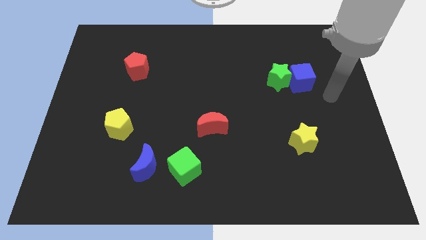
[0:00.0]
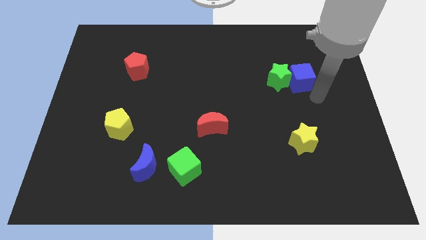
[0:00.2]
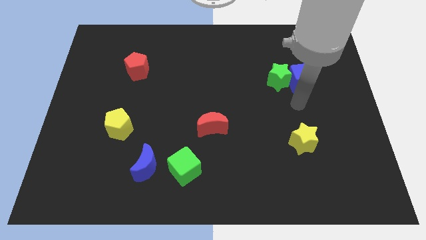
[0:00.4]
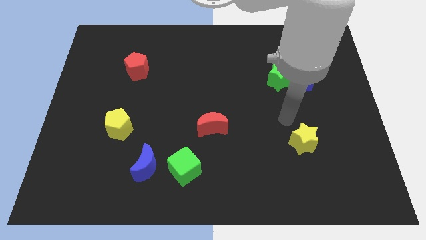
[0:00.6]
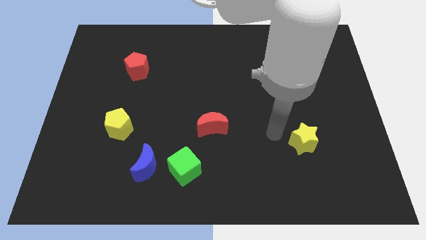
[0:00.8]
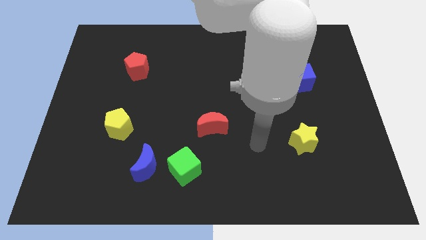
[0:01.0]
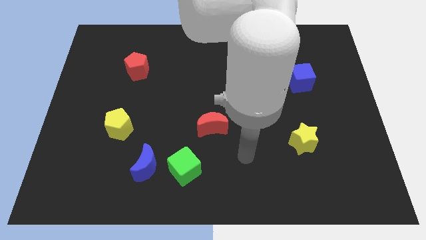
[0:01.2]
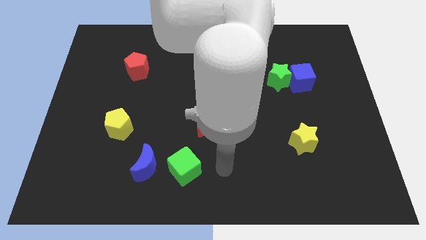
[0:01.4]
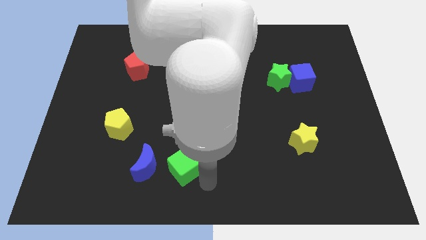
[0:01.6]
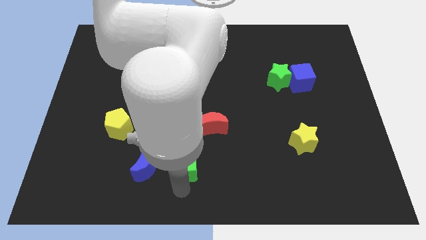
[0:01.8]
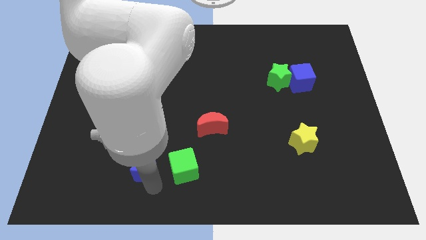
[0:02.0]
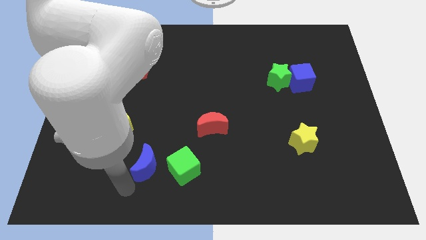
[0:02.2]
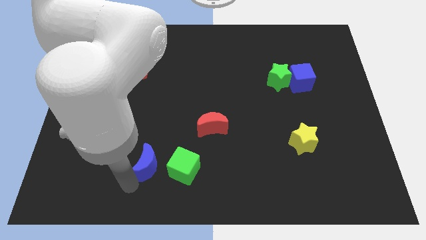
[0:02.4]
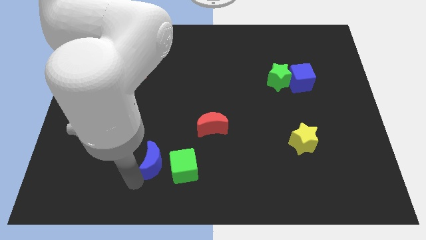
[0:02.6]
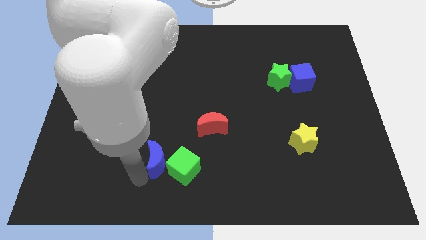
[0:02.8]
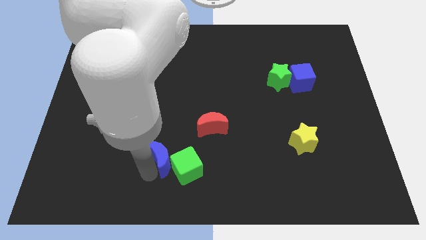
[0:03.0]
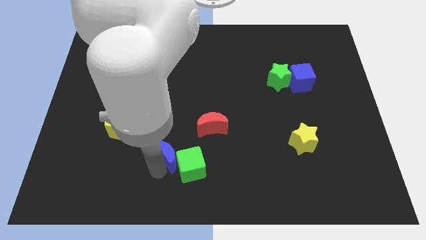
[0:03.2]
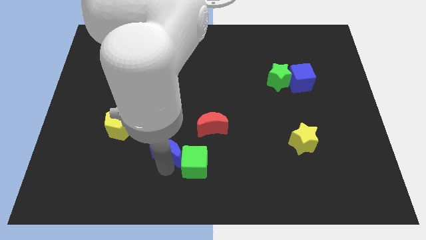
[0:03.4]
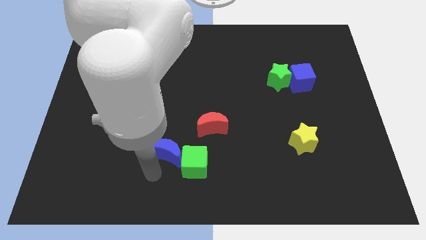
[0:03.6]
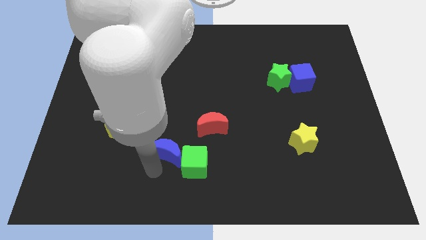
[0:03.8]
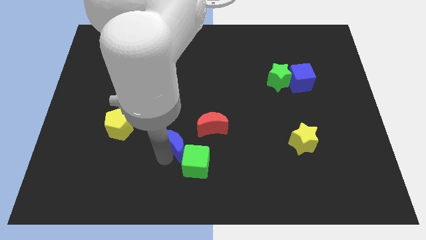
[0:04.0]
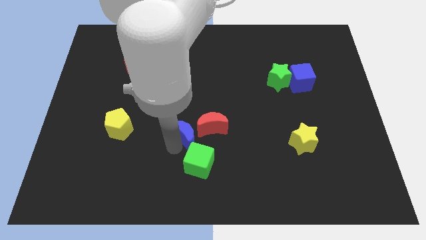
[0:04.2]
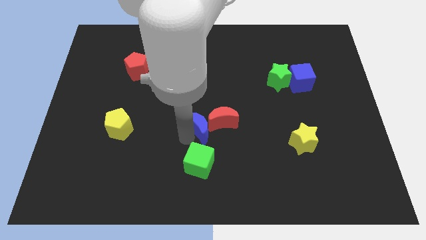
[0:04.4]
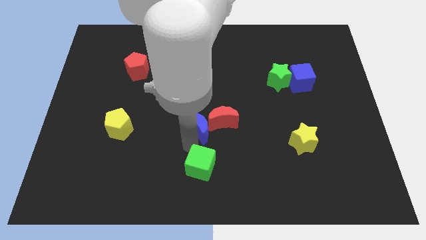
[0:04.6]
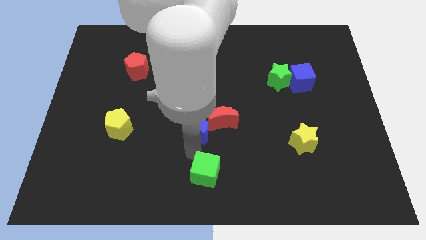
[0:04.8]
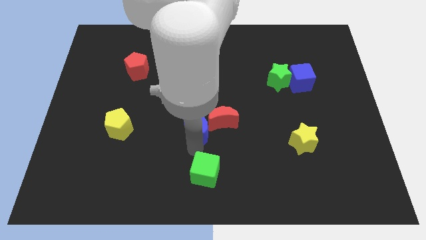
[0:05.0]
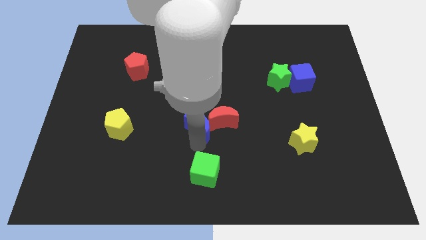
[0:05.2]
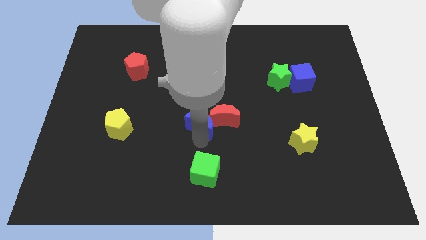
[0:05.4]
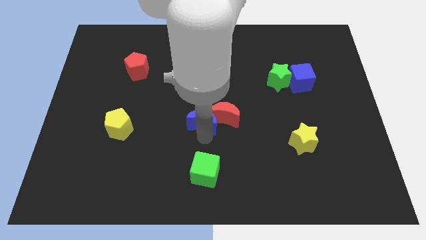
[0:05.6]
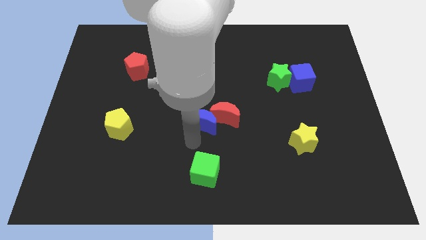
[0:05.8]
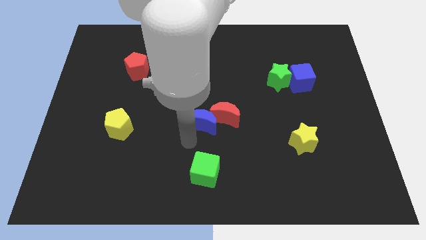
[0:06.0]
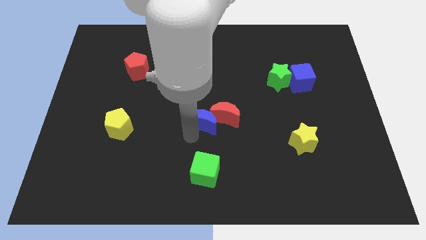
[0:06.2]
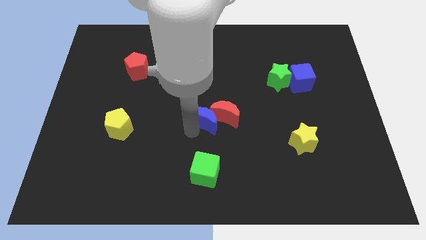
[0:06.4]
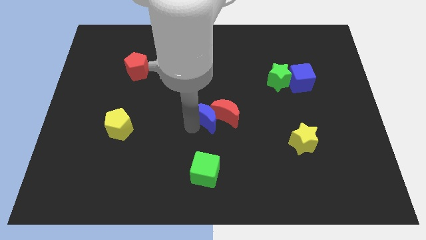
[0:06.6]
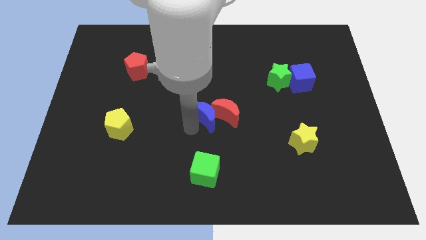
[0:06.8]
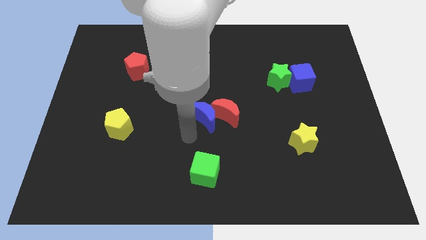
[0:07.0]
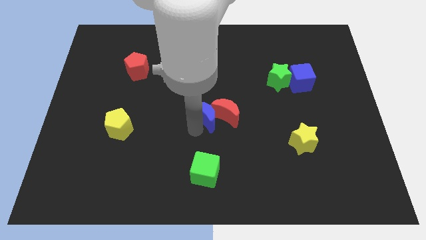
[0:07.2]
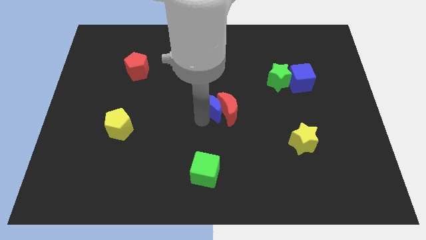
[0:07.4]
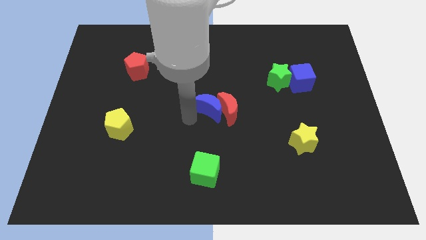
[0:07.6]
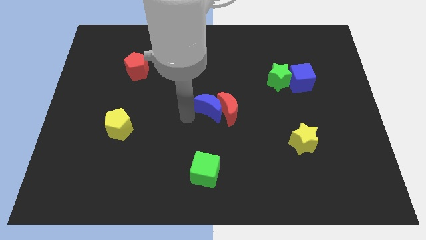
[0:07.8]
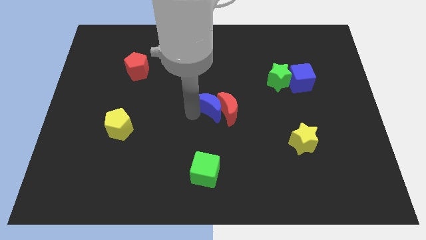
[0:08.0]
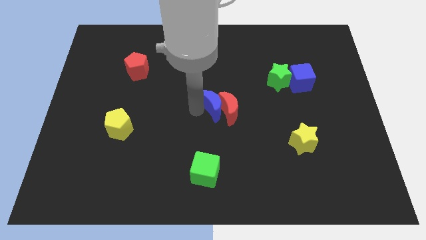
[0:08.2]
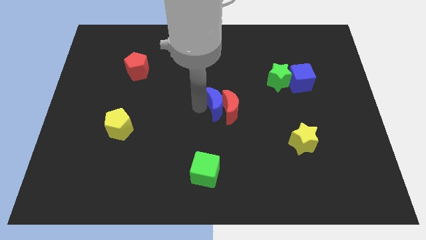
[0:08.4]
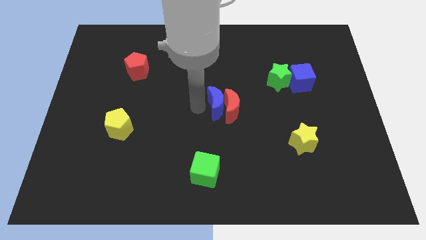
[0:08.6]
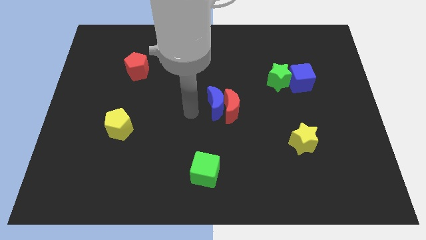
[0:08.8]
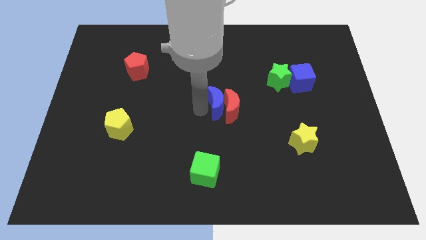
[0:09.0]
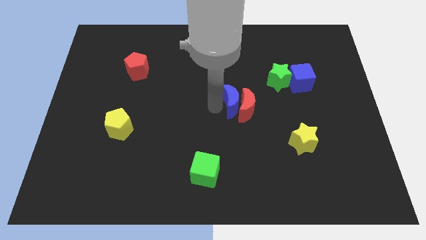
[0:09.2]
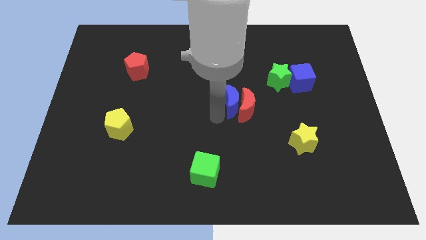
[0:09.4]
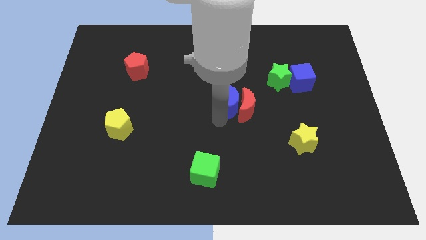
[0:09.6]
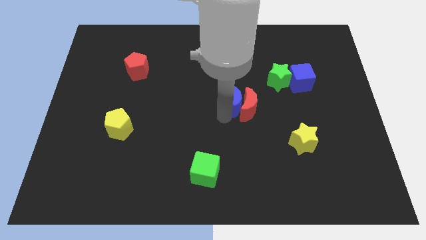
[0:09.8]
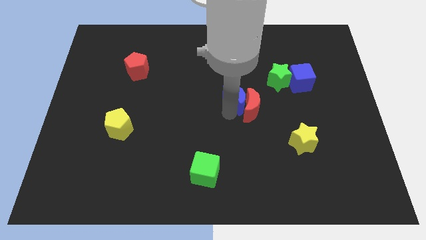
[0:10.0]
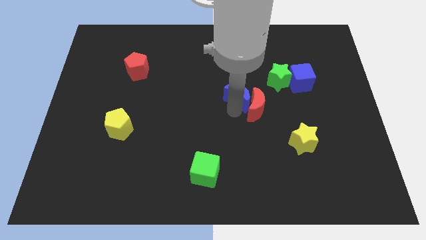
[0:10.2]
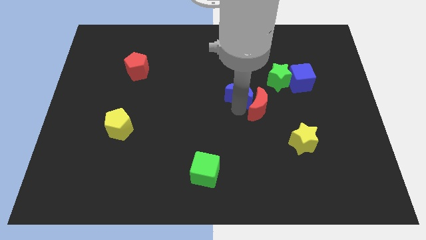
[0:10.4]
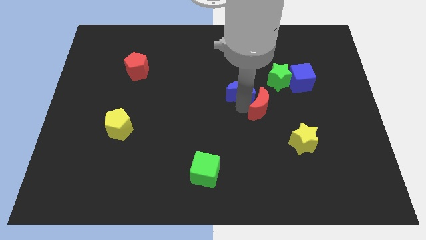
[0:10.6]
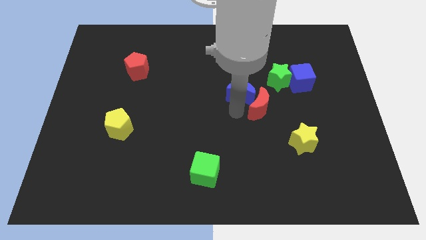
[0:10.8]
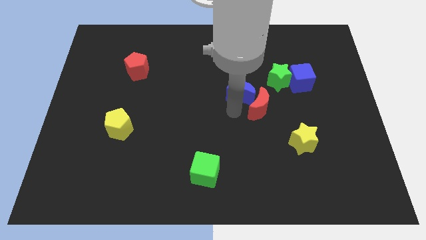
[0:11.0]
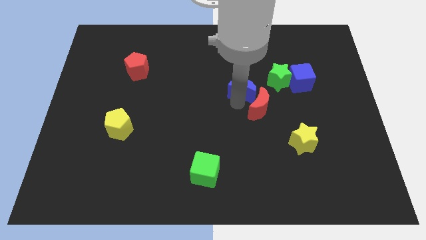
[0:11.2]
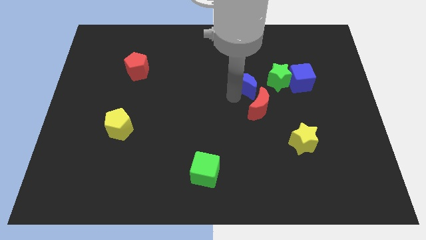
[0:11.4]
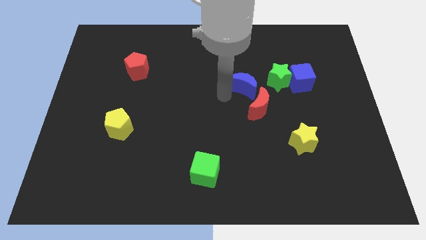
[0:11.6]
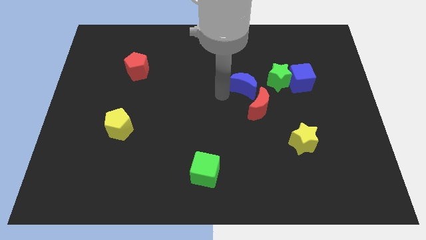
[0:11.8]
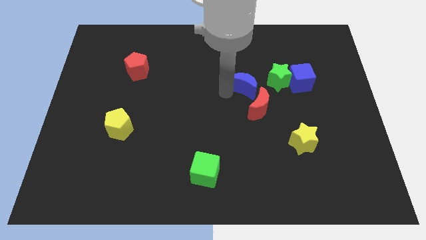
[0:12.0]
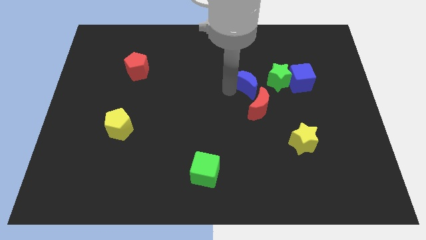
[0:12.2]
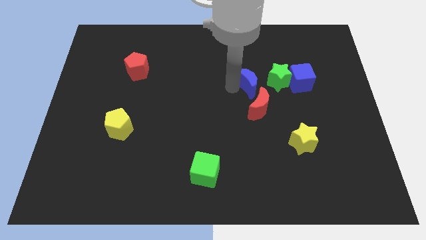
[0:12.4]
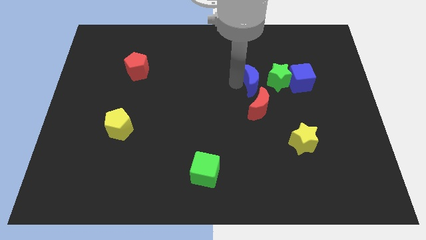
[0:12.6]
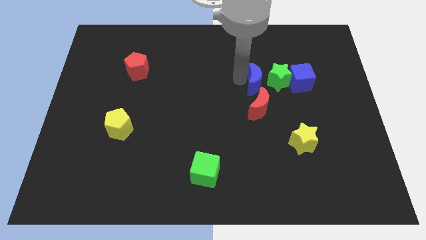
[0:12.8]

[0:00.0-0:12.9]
move the blue moon towards the green star
